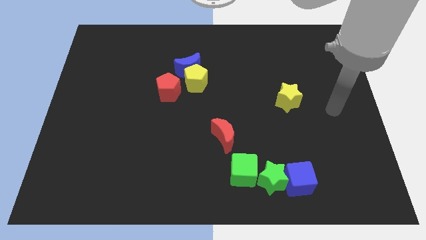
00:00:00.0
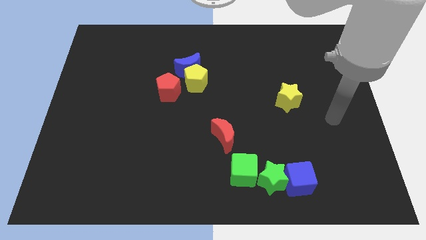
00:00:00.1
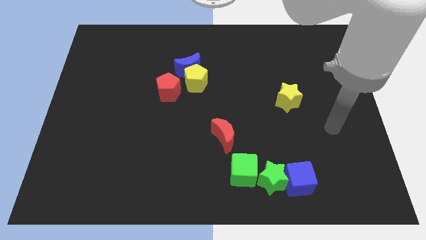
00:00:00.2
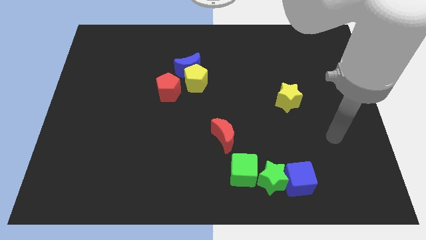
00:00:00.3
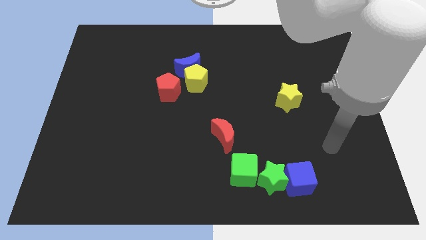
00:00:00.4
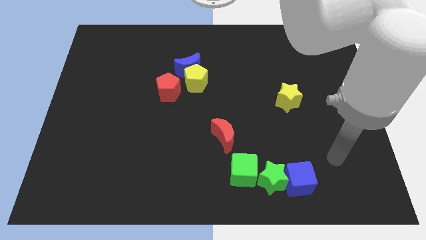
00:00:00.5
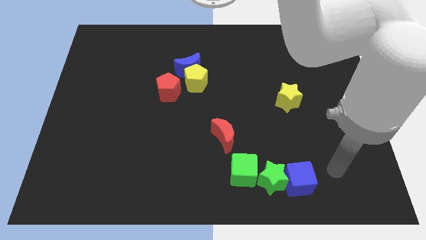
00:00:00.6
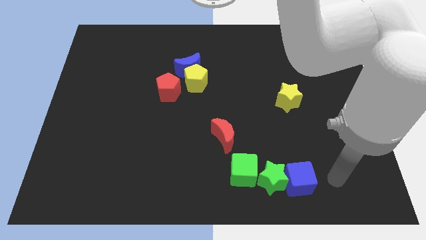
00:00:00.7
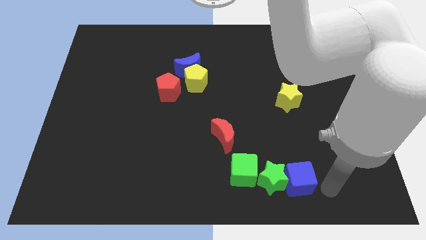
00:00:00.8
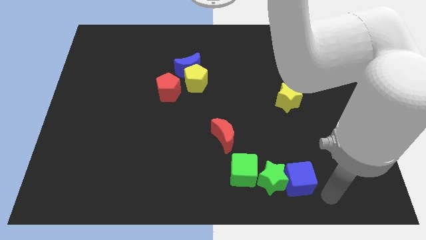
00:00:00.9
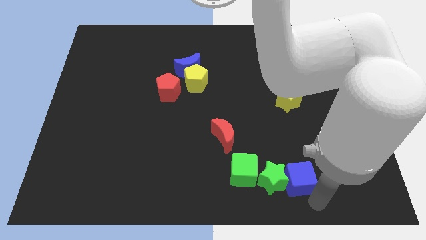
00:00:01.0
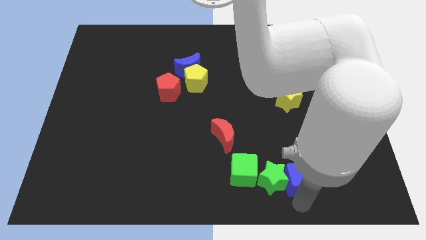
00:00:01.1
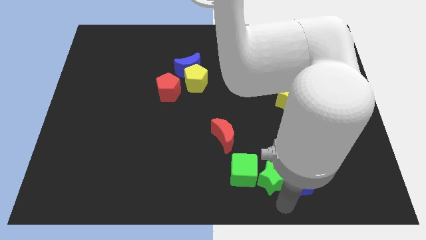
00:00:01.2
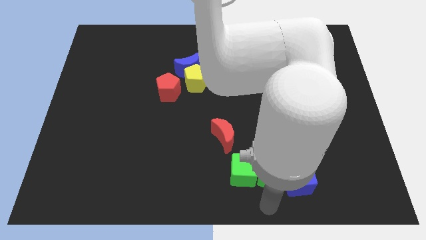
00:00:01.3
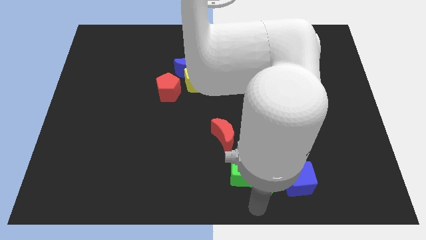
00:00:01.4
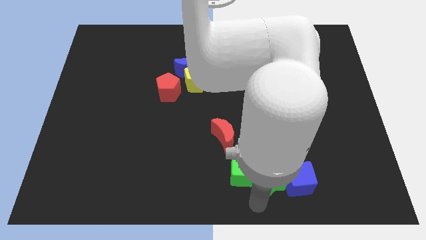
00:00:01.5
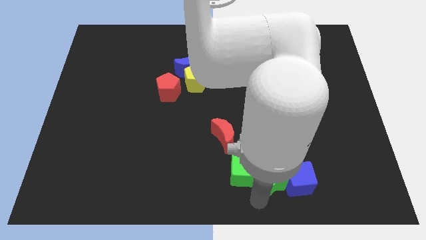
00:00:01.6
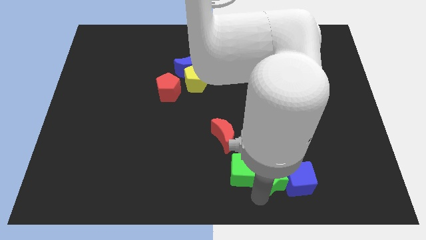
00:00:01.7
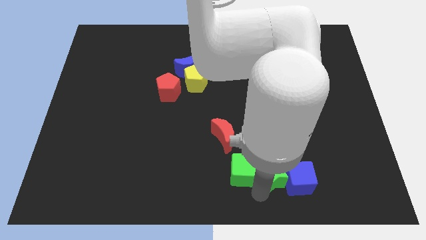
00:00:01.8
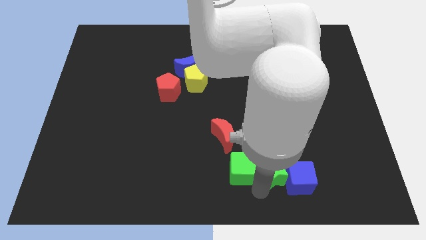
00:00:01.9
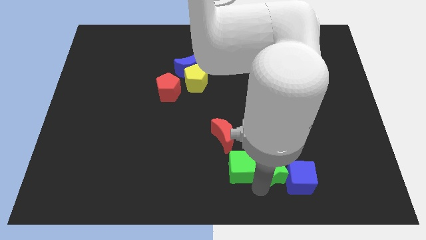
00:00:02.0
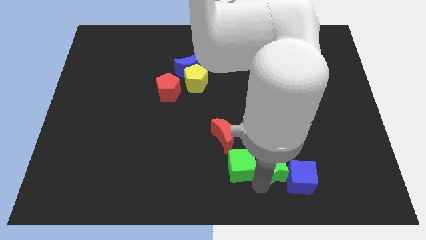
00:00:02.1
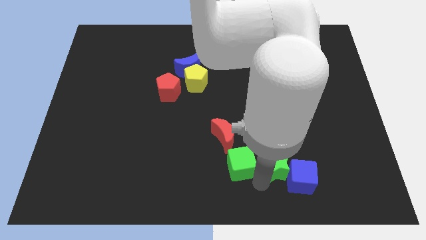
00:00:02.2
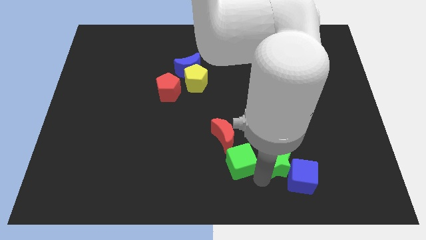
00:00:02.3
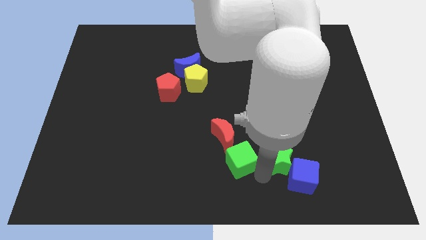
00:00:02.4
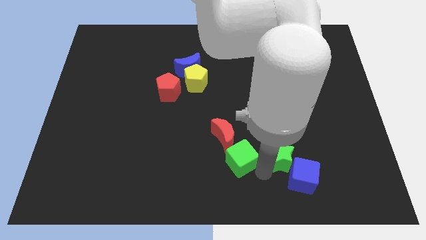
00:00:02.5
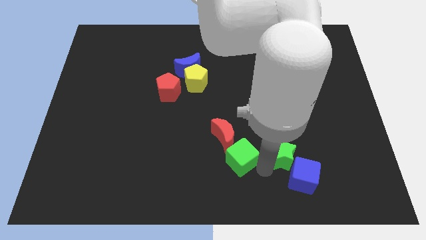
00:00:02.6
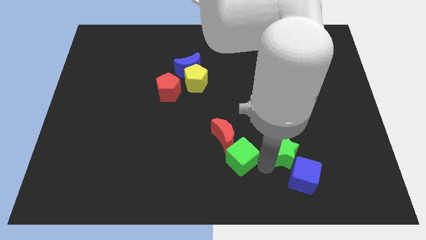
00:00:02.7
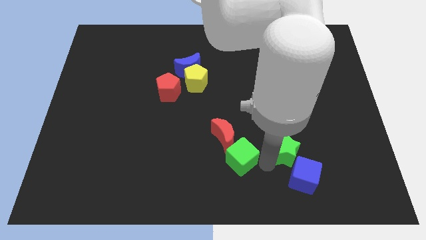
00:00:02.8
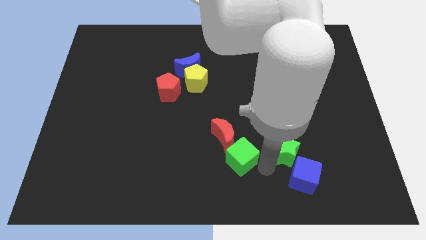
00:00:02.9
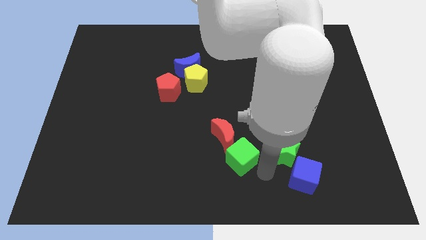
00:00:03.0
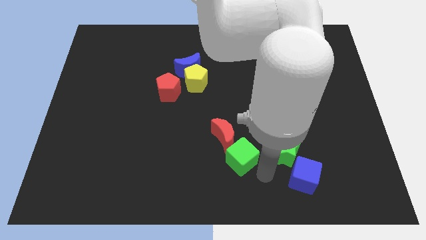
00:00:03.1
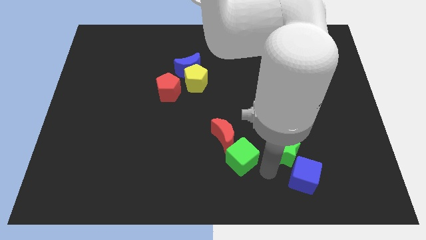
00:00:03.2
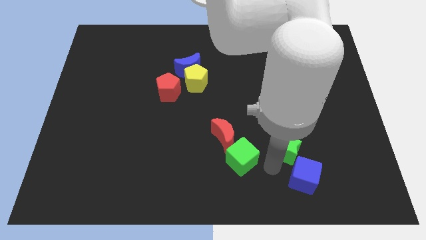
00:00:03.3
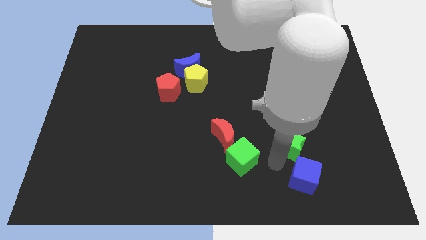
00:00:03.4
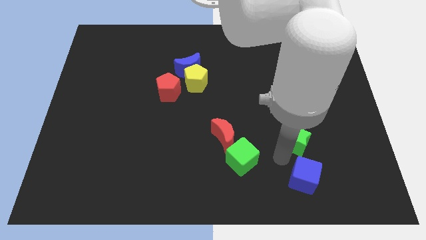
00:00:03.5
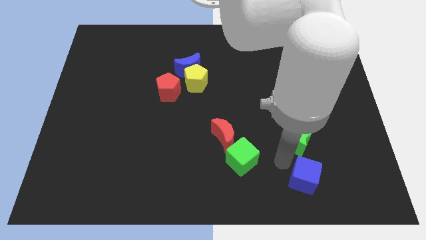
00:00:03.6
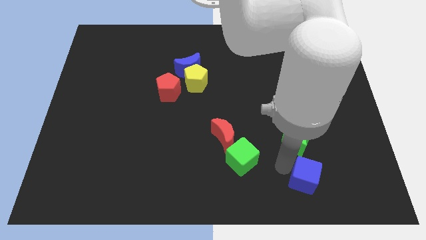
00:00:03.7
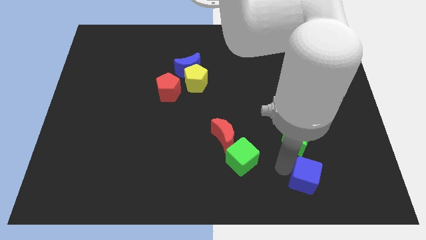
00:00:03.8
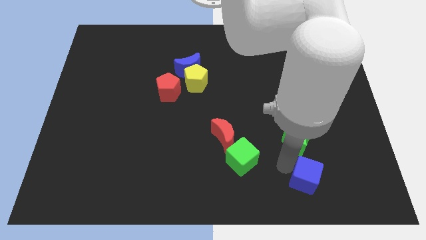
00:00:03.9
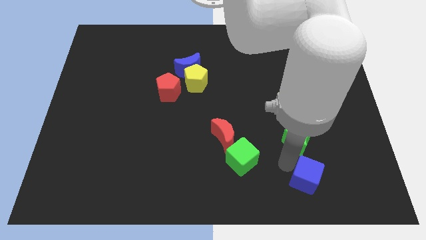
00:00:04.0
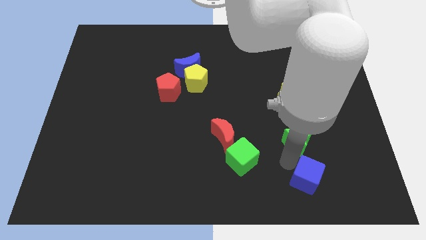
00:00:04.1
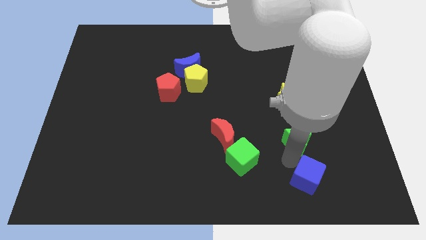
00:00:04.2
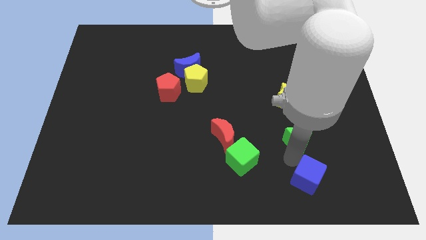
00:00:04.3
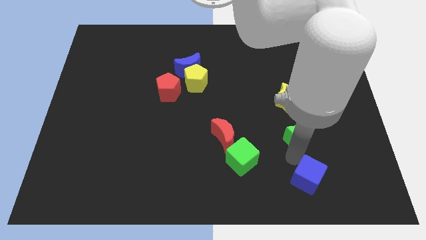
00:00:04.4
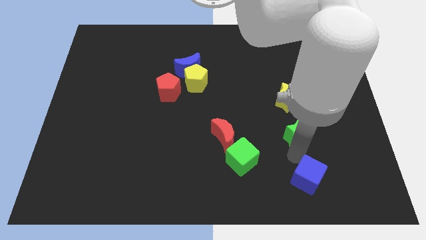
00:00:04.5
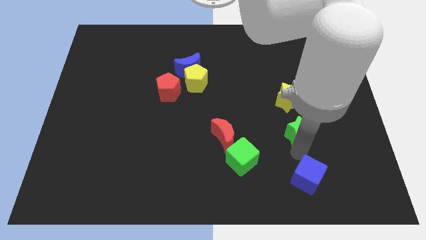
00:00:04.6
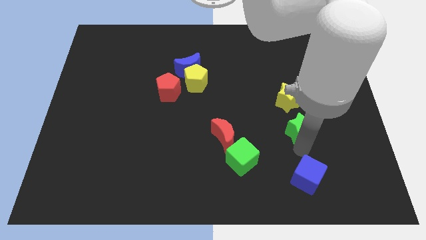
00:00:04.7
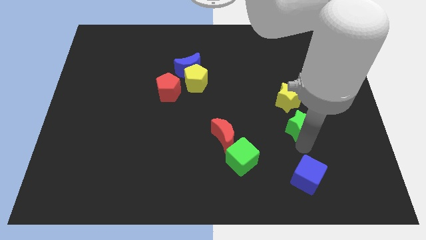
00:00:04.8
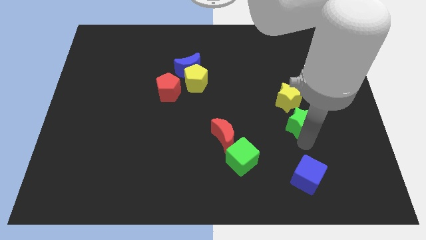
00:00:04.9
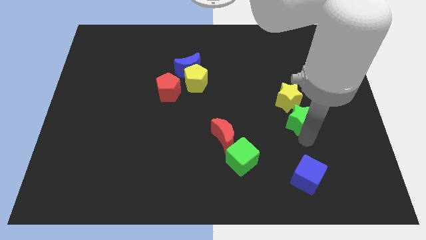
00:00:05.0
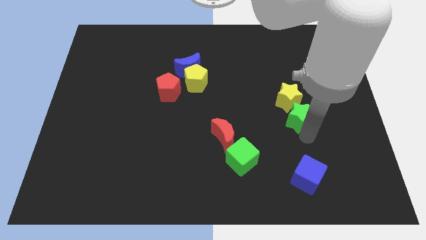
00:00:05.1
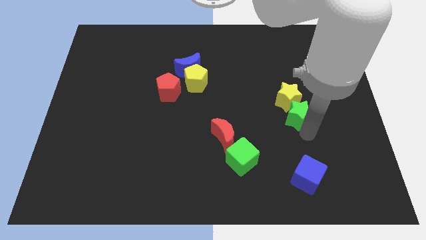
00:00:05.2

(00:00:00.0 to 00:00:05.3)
put the green star to the yellow star

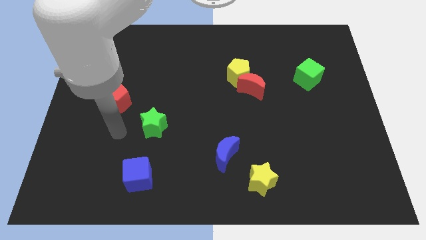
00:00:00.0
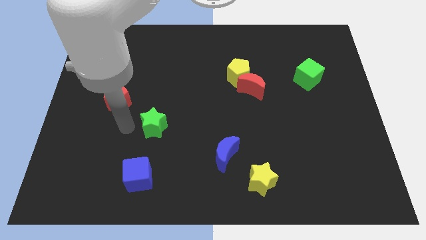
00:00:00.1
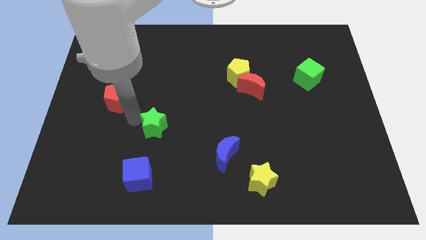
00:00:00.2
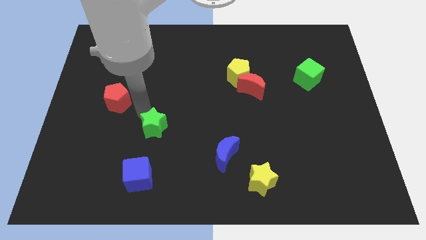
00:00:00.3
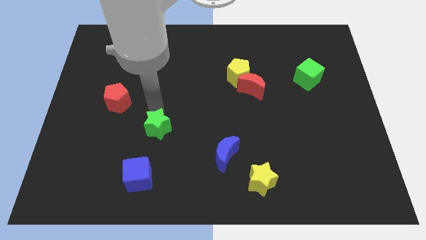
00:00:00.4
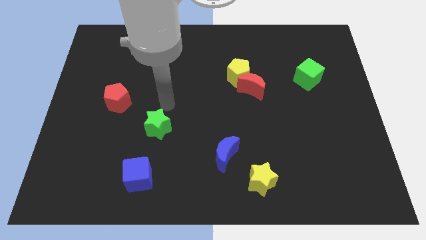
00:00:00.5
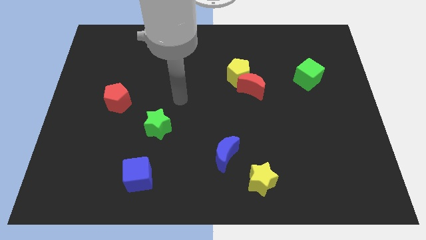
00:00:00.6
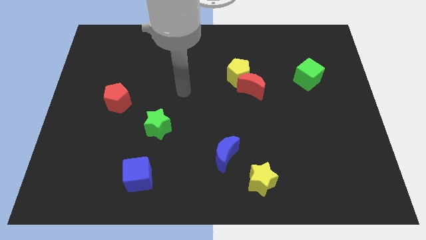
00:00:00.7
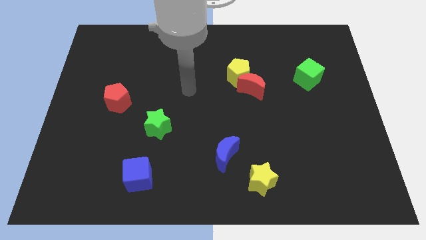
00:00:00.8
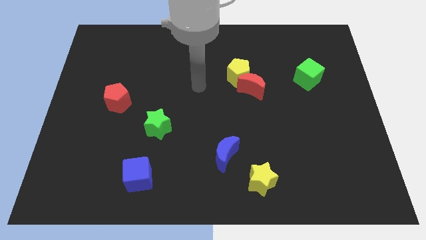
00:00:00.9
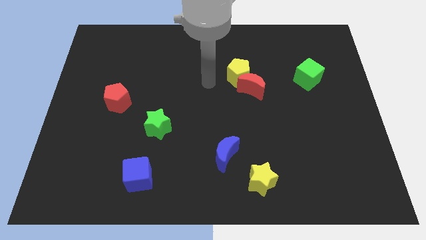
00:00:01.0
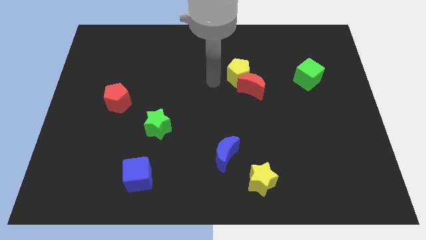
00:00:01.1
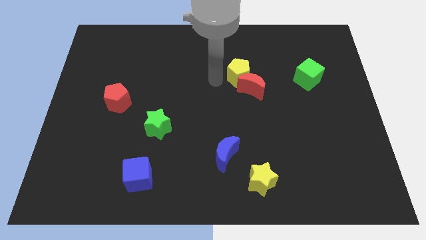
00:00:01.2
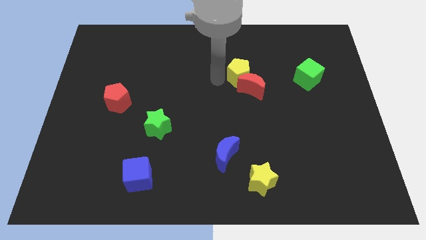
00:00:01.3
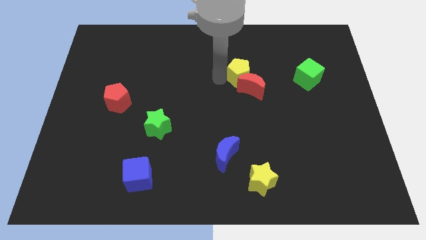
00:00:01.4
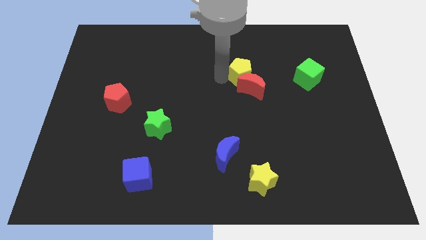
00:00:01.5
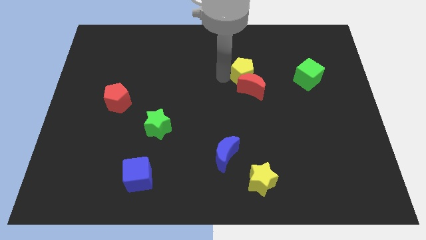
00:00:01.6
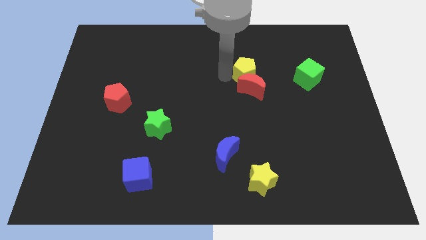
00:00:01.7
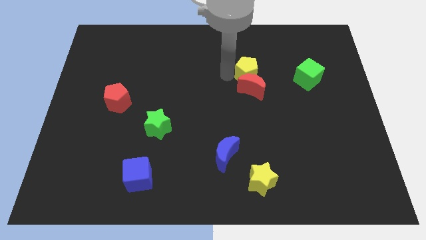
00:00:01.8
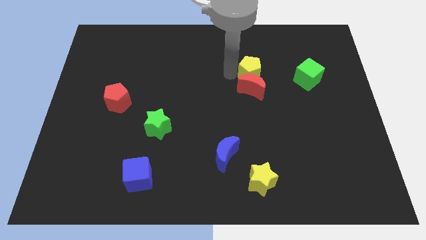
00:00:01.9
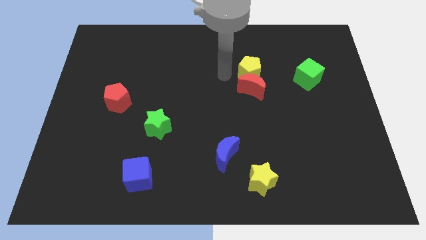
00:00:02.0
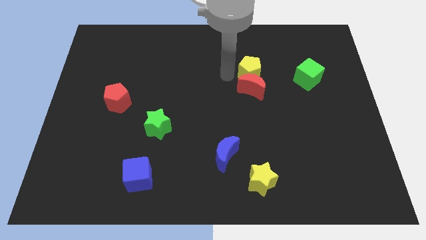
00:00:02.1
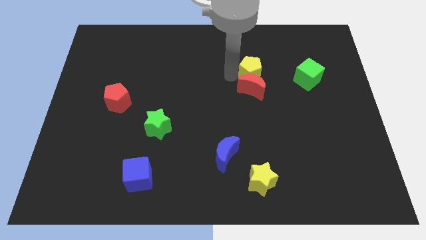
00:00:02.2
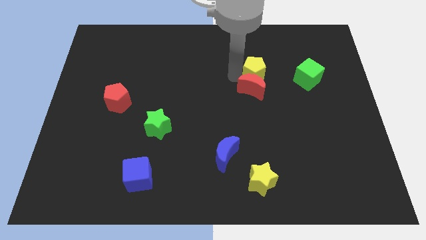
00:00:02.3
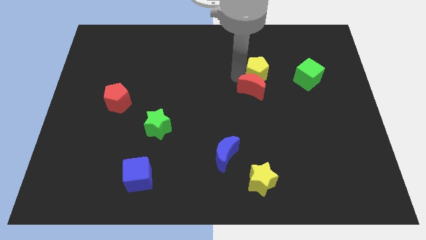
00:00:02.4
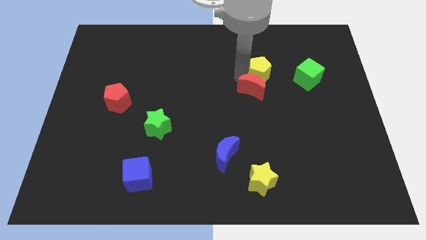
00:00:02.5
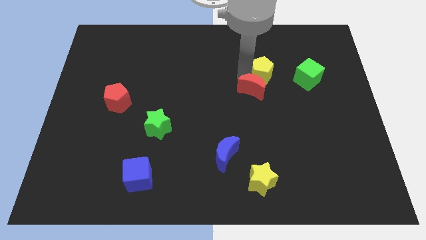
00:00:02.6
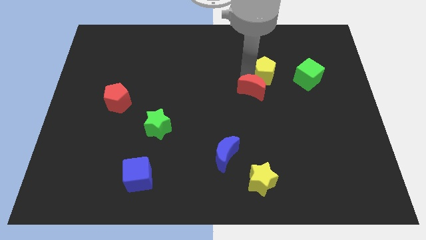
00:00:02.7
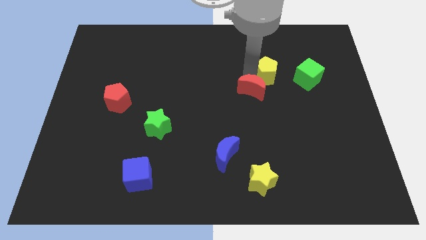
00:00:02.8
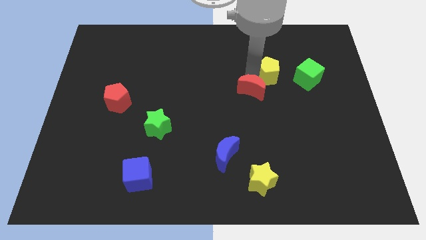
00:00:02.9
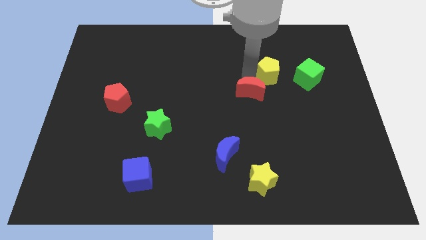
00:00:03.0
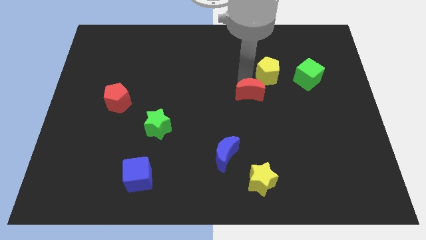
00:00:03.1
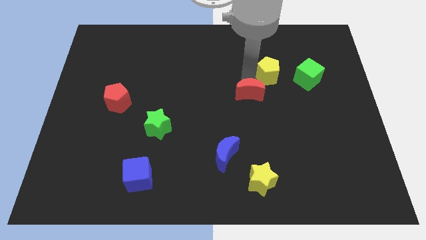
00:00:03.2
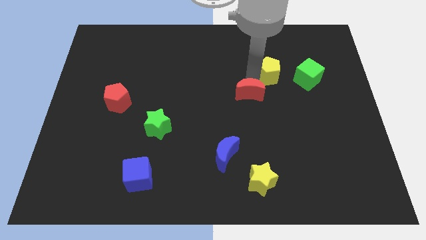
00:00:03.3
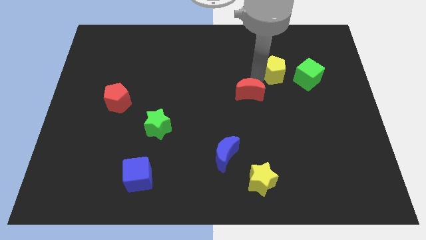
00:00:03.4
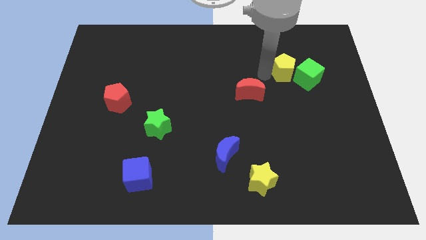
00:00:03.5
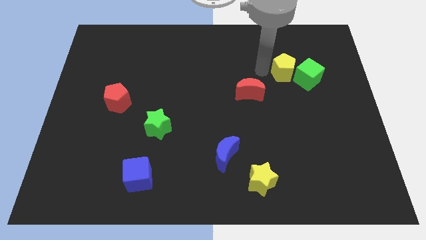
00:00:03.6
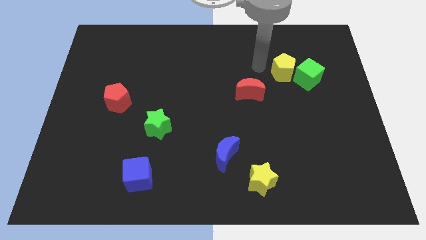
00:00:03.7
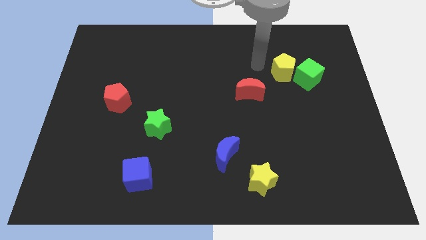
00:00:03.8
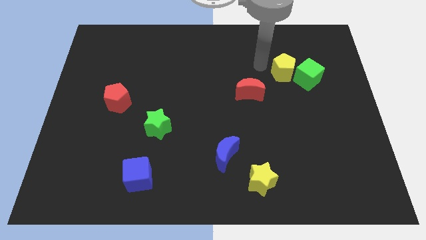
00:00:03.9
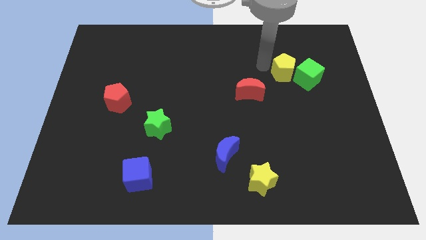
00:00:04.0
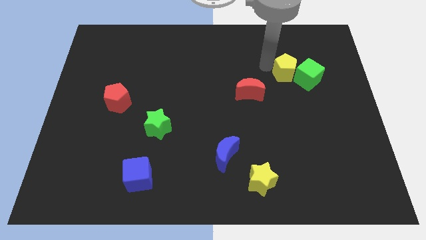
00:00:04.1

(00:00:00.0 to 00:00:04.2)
push the yellow pentagon next to the green cube
